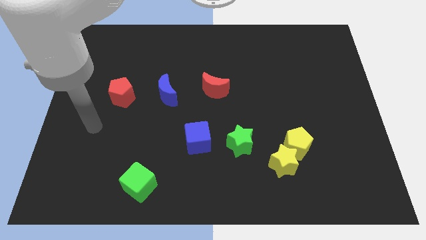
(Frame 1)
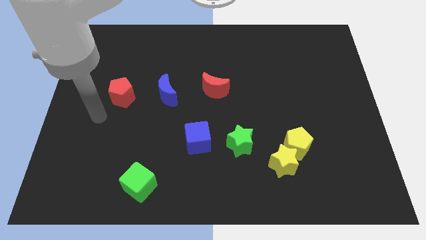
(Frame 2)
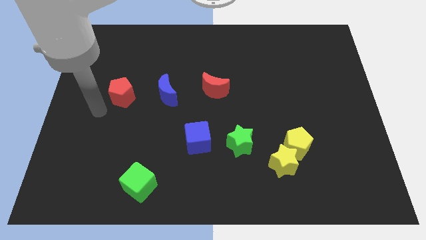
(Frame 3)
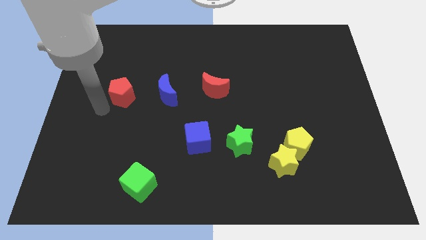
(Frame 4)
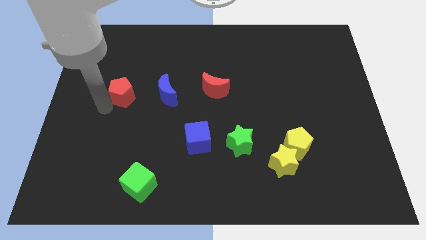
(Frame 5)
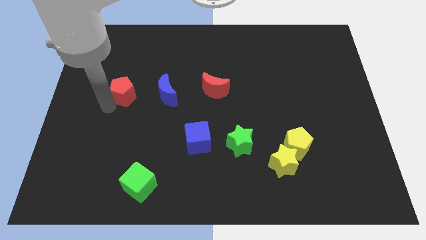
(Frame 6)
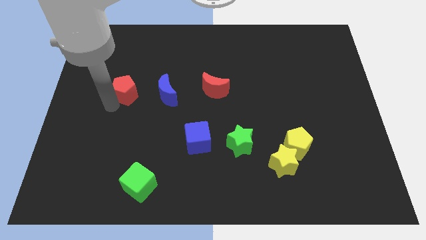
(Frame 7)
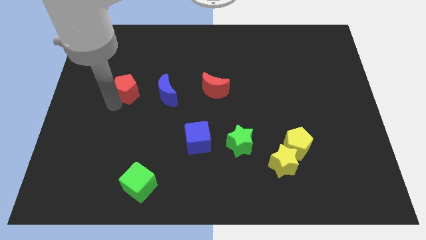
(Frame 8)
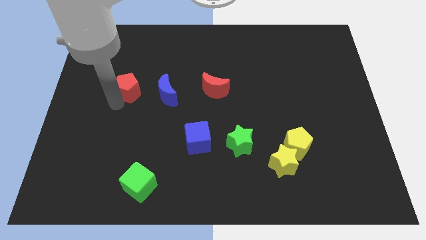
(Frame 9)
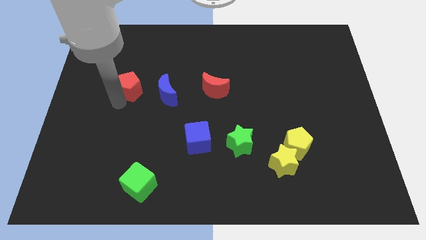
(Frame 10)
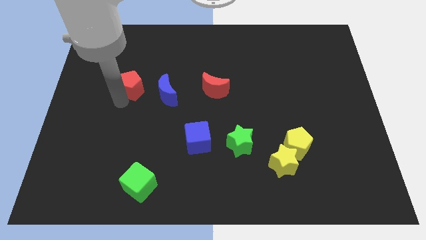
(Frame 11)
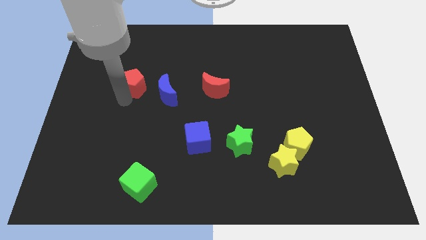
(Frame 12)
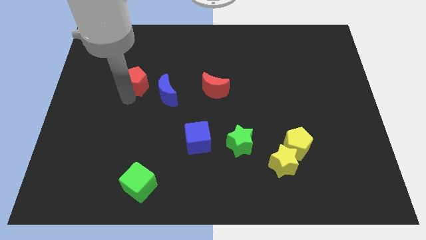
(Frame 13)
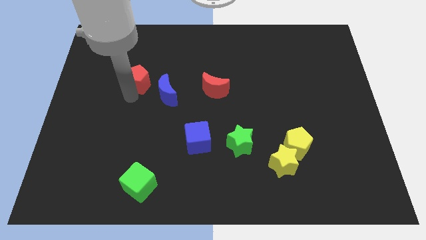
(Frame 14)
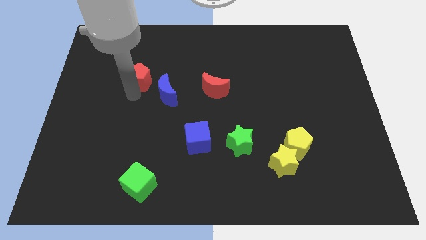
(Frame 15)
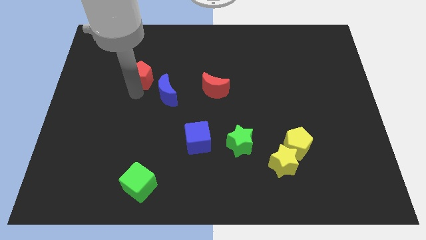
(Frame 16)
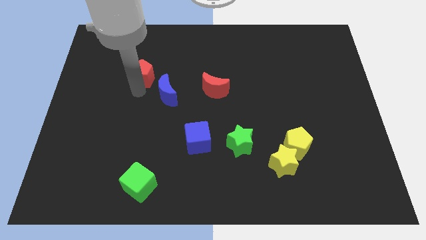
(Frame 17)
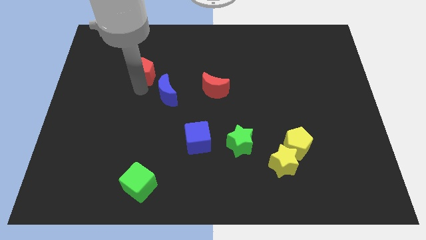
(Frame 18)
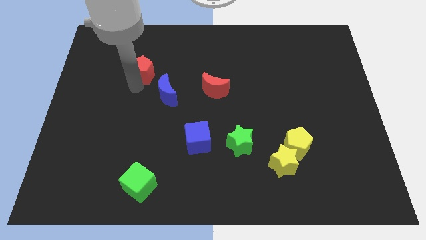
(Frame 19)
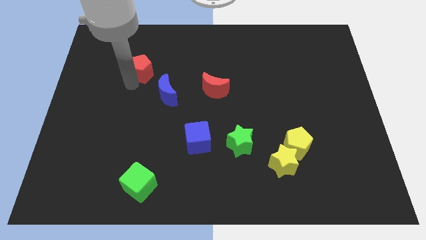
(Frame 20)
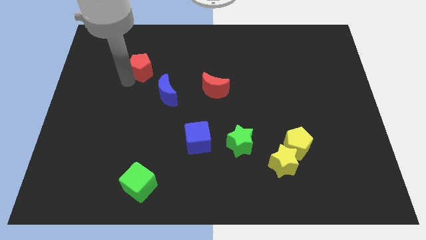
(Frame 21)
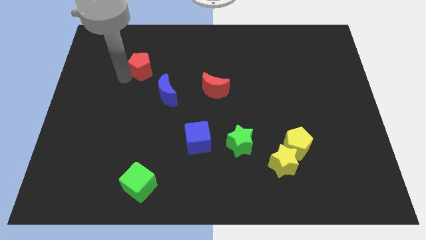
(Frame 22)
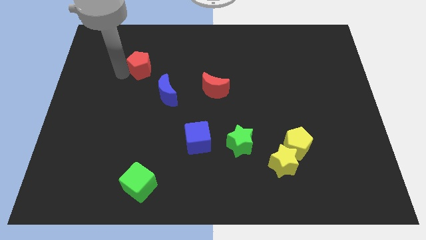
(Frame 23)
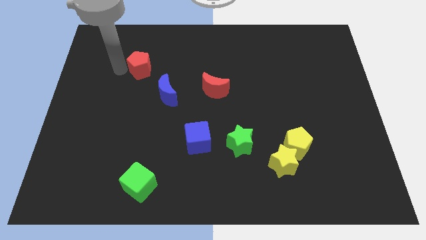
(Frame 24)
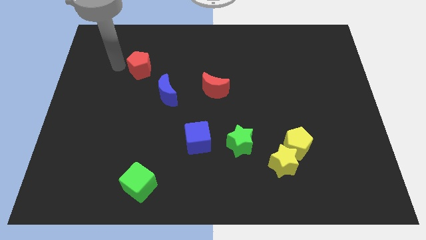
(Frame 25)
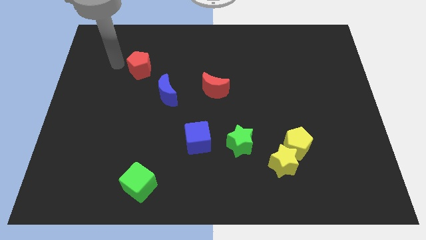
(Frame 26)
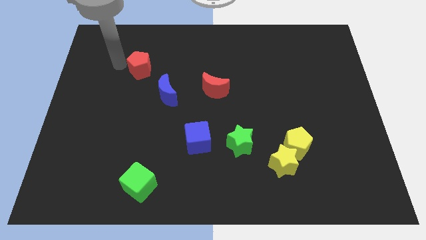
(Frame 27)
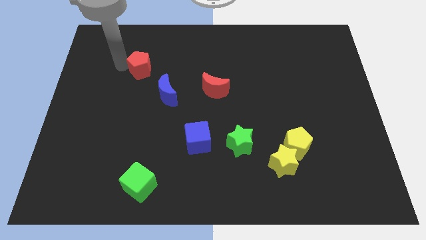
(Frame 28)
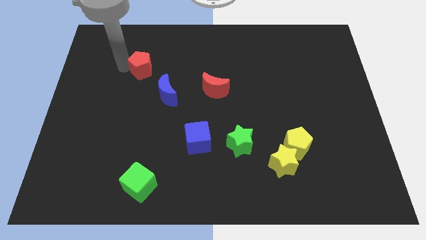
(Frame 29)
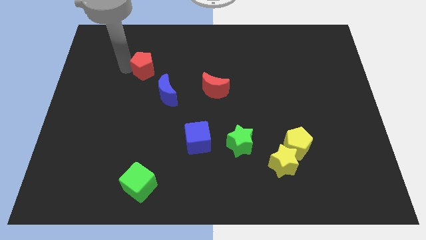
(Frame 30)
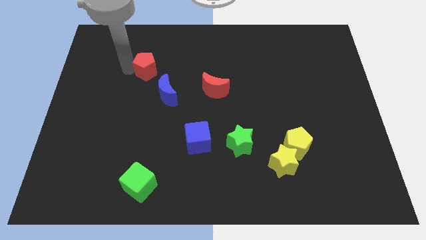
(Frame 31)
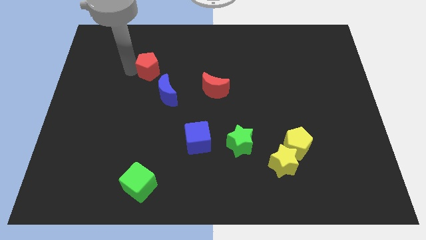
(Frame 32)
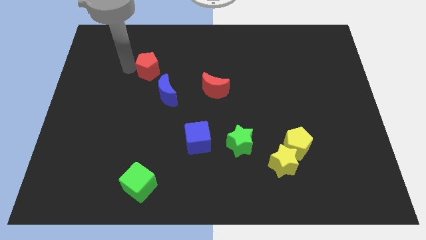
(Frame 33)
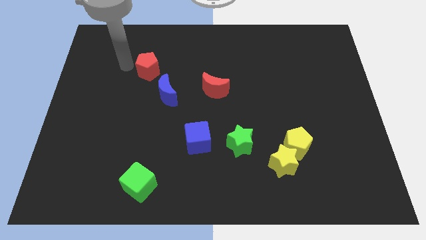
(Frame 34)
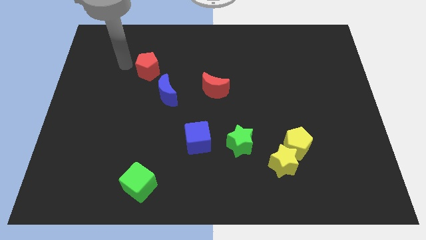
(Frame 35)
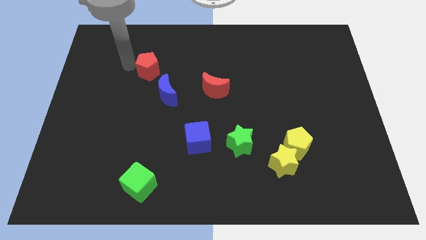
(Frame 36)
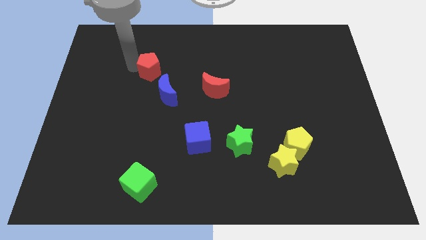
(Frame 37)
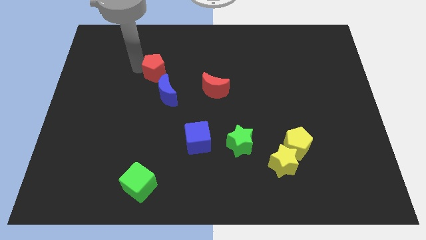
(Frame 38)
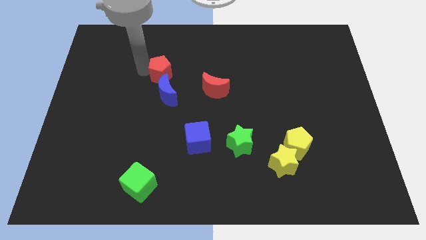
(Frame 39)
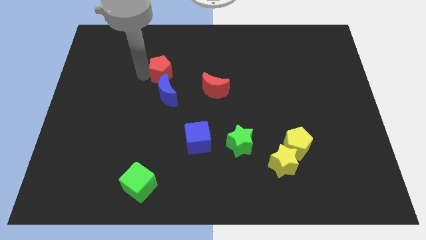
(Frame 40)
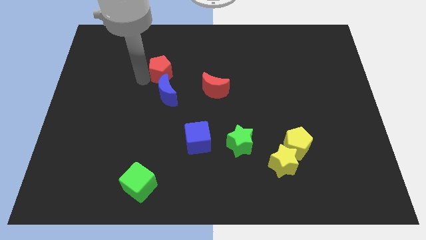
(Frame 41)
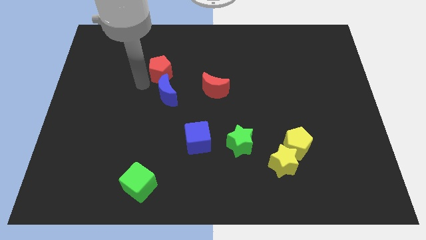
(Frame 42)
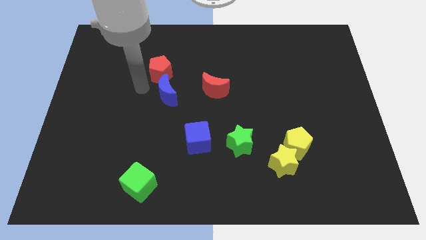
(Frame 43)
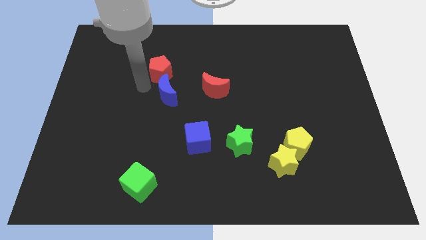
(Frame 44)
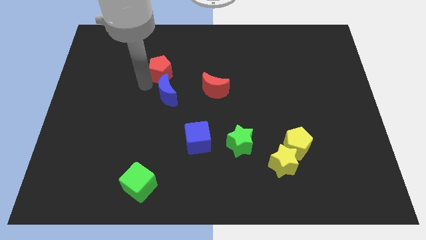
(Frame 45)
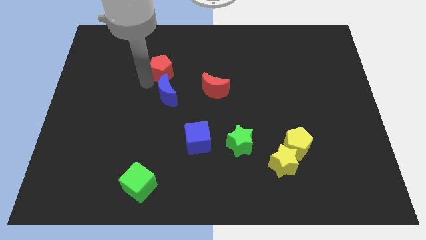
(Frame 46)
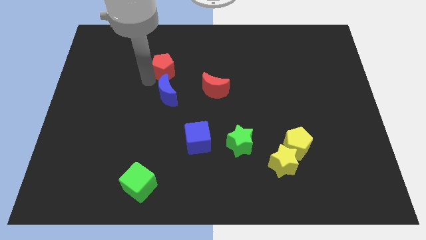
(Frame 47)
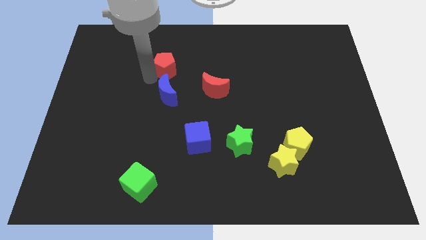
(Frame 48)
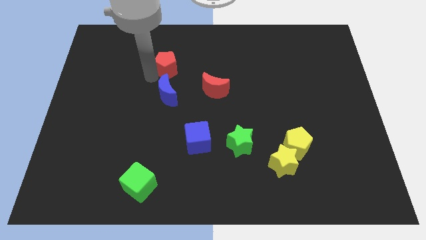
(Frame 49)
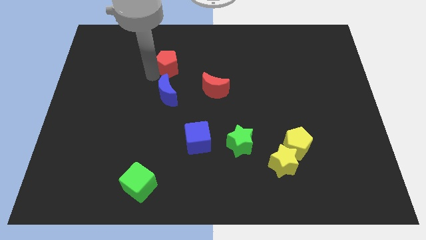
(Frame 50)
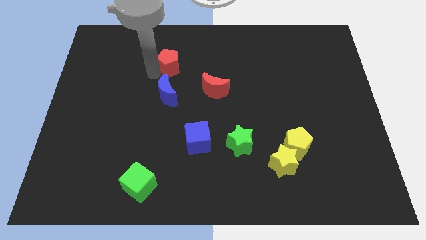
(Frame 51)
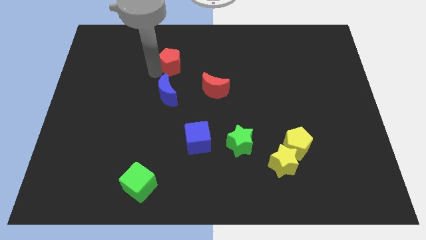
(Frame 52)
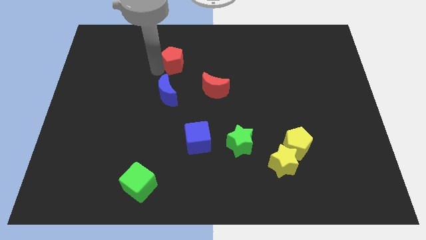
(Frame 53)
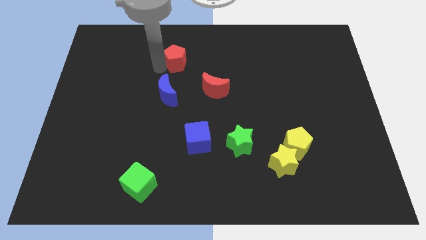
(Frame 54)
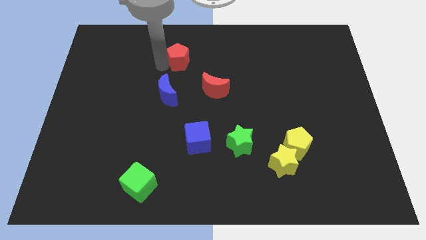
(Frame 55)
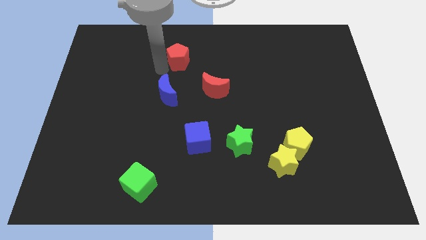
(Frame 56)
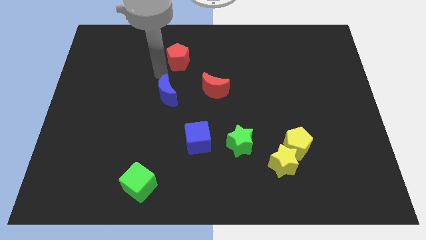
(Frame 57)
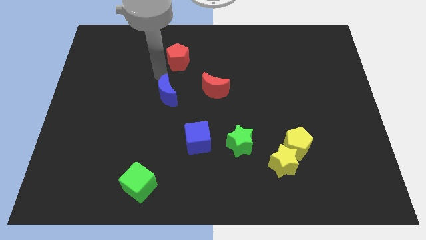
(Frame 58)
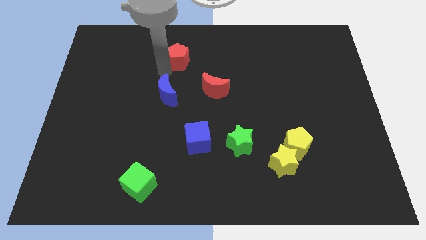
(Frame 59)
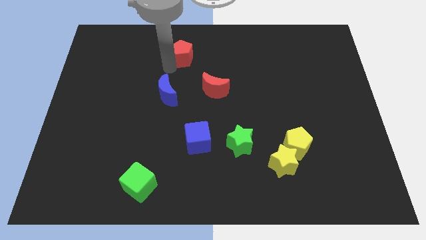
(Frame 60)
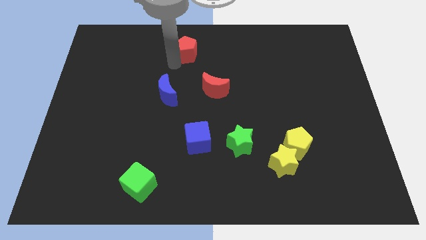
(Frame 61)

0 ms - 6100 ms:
slide the red pentagon to the top

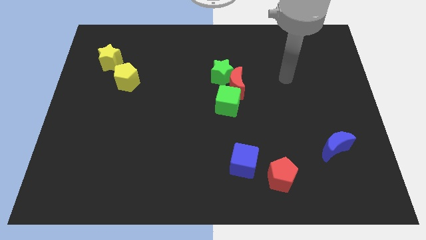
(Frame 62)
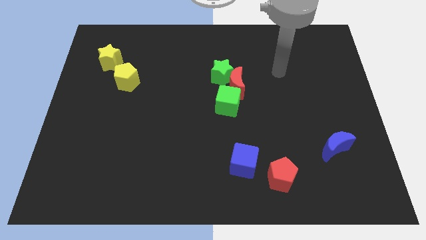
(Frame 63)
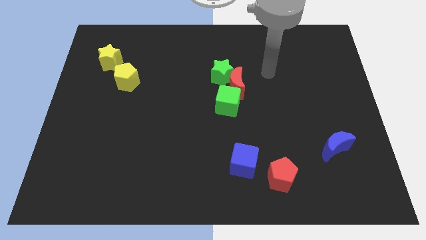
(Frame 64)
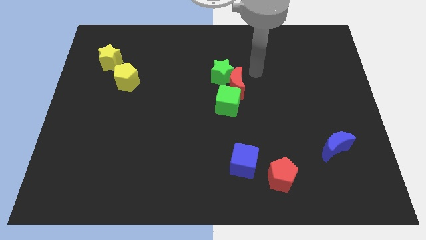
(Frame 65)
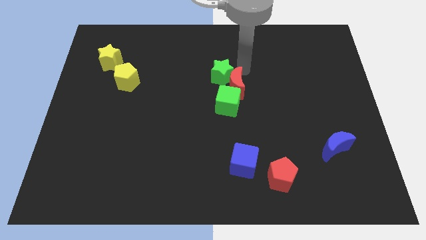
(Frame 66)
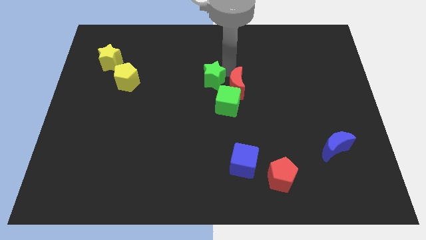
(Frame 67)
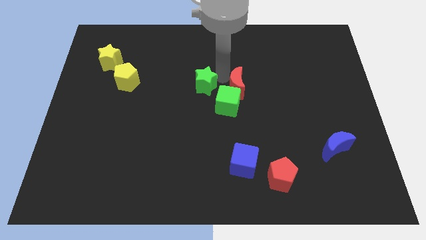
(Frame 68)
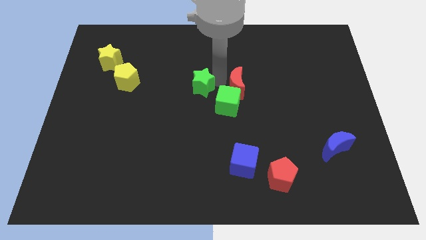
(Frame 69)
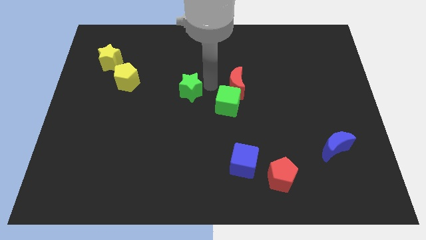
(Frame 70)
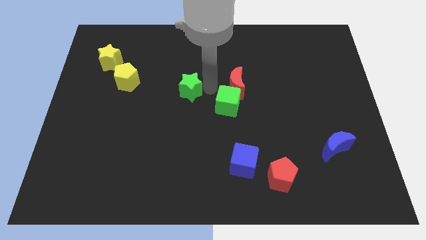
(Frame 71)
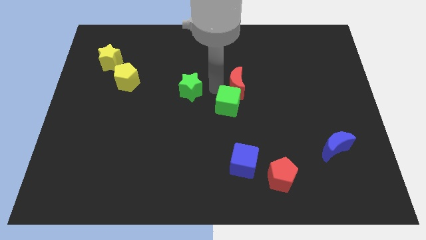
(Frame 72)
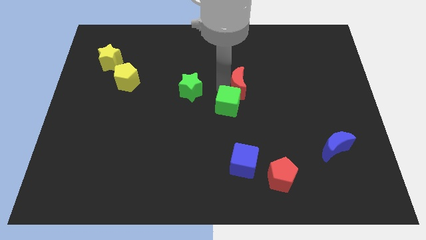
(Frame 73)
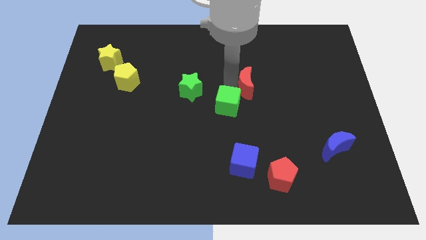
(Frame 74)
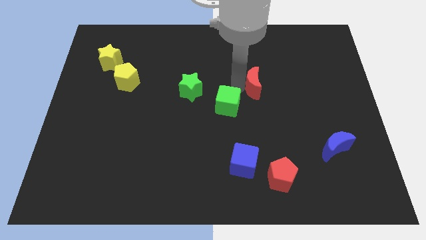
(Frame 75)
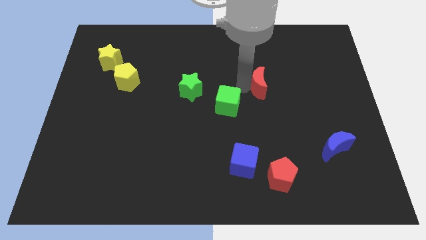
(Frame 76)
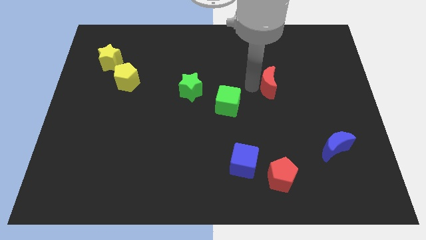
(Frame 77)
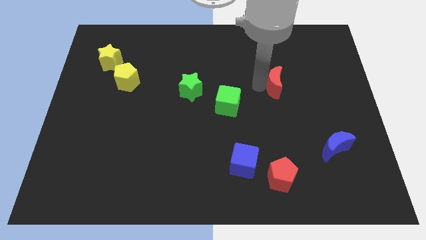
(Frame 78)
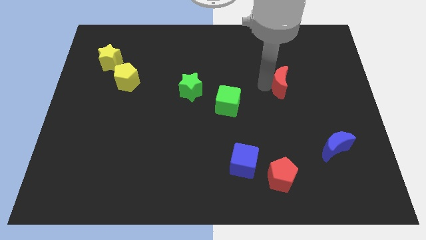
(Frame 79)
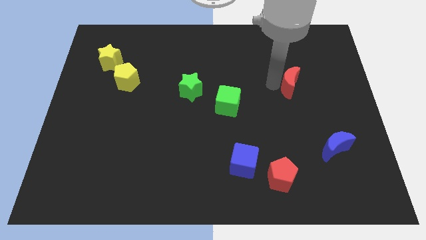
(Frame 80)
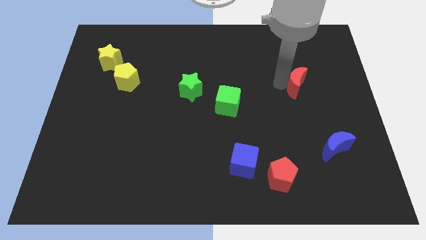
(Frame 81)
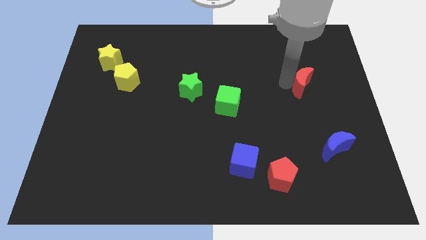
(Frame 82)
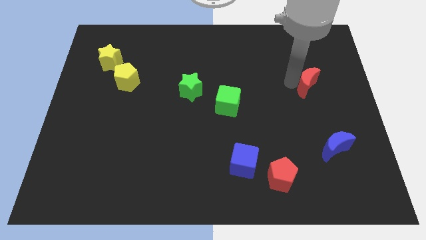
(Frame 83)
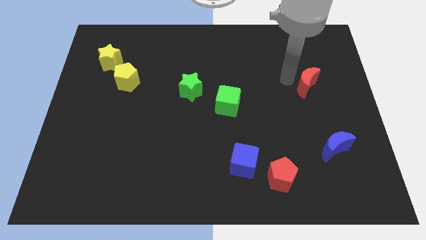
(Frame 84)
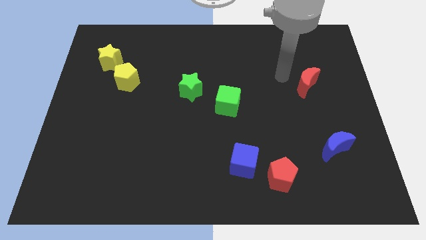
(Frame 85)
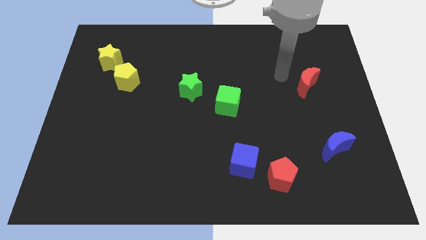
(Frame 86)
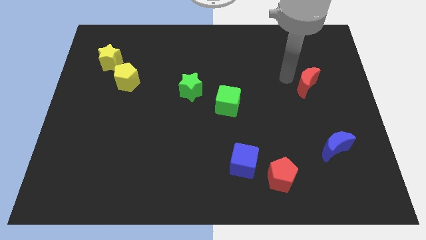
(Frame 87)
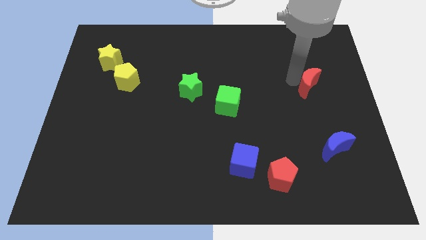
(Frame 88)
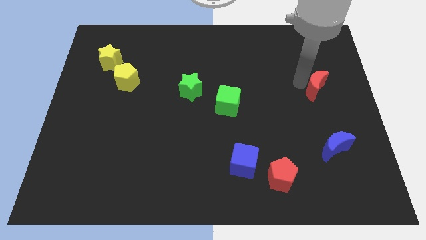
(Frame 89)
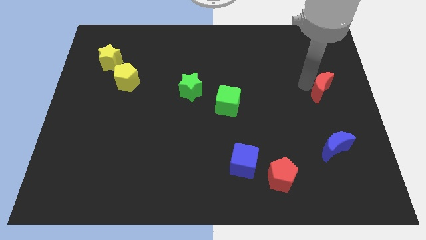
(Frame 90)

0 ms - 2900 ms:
slide the red moon to the right side
